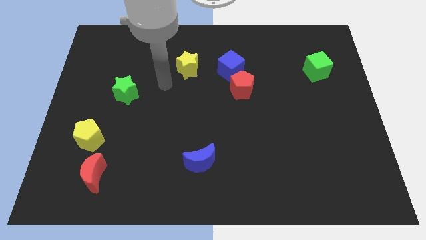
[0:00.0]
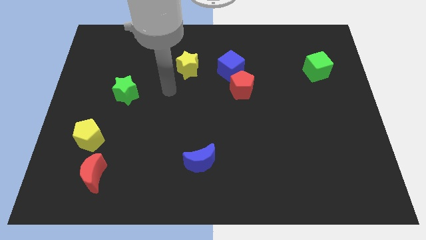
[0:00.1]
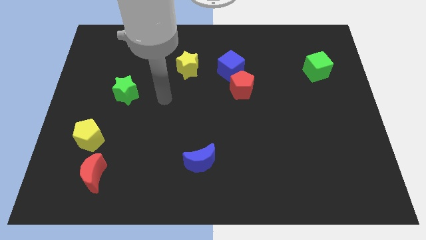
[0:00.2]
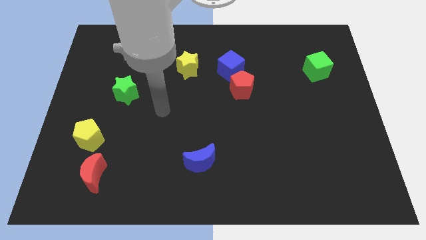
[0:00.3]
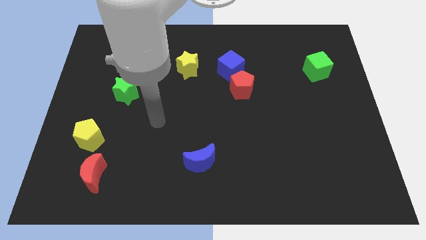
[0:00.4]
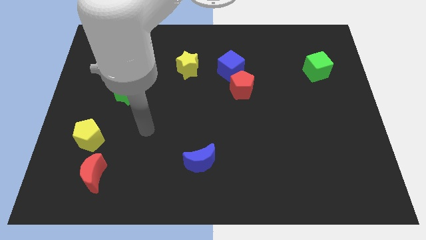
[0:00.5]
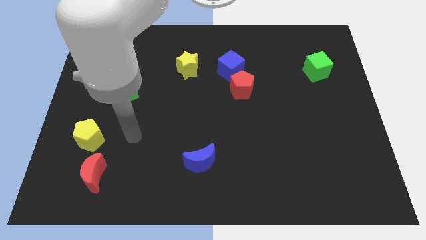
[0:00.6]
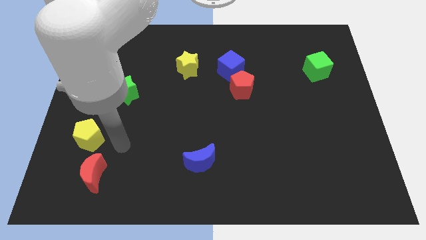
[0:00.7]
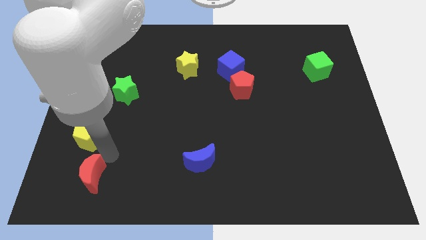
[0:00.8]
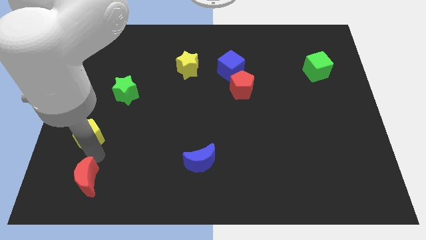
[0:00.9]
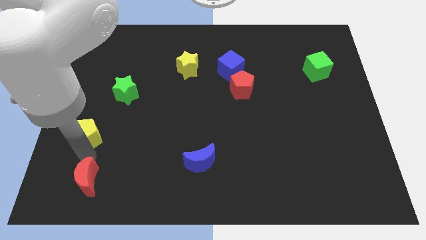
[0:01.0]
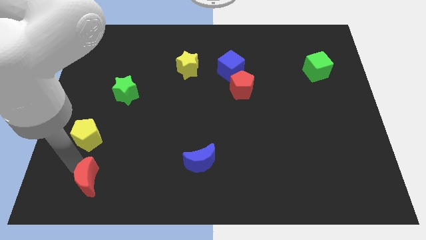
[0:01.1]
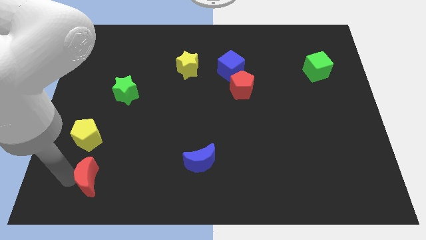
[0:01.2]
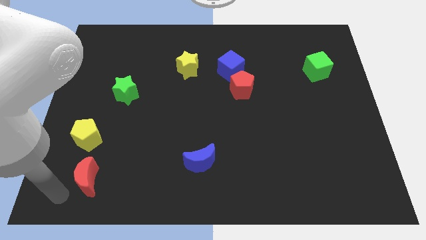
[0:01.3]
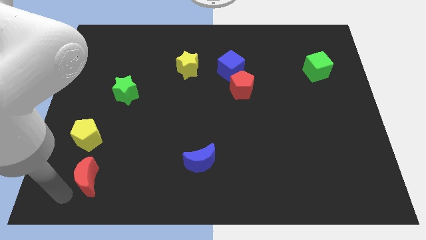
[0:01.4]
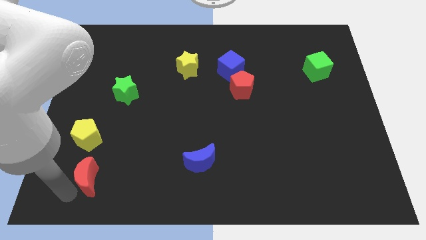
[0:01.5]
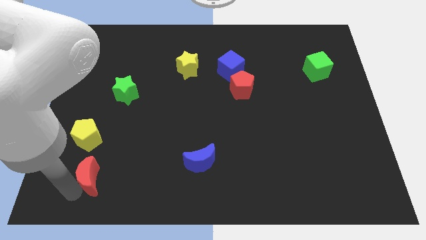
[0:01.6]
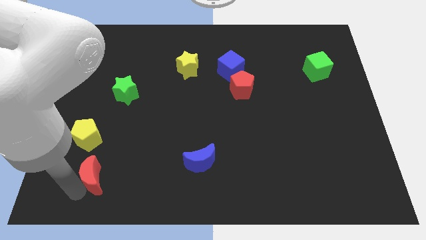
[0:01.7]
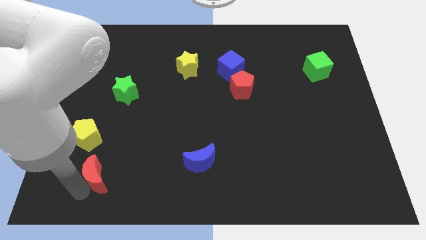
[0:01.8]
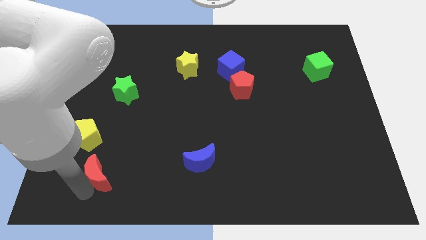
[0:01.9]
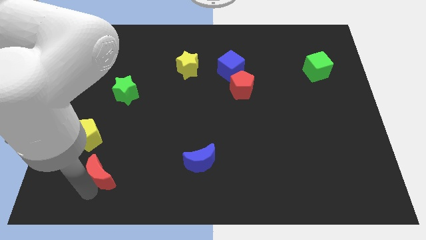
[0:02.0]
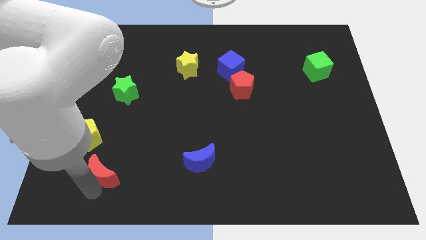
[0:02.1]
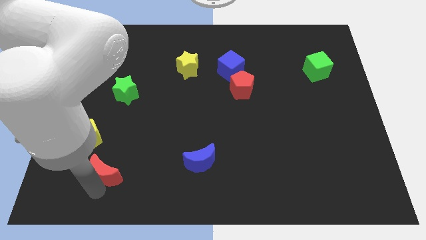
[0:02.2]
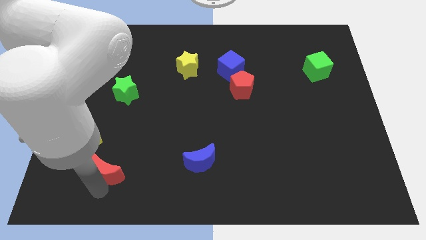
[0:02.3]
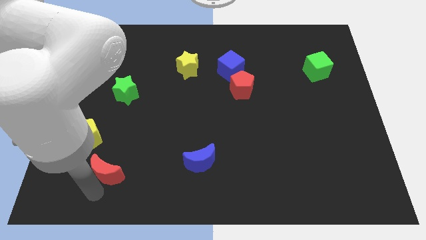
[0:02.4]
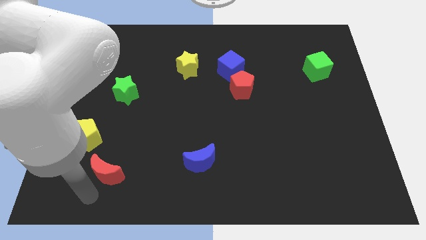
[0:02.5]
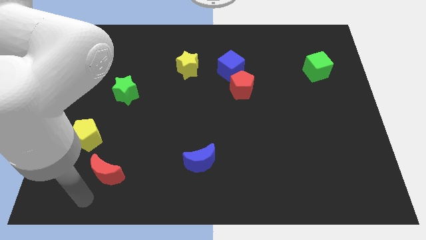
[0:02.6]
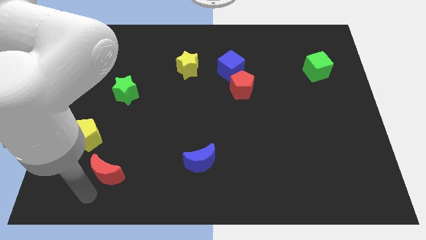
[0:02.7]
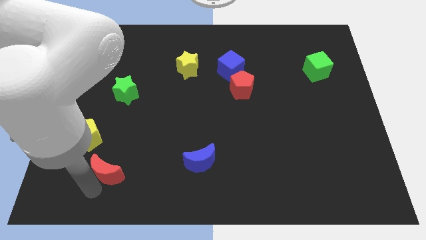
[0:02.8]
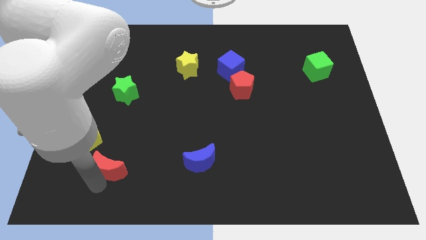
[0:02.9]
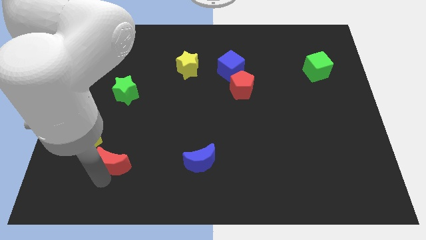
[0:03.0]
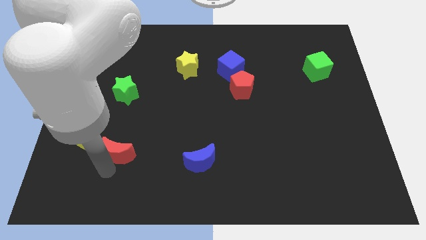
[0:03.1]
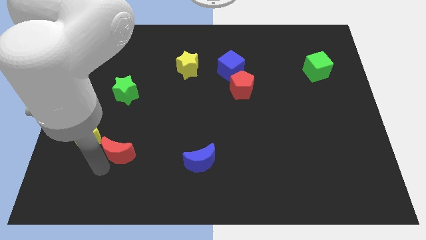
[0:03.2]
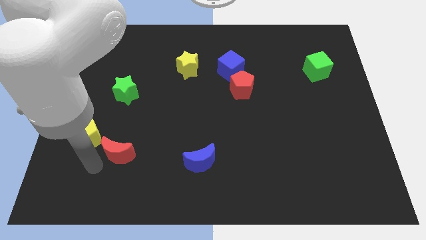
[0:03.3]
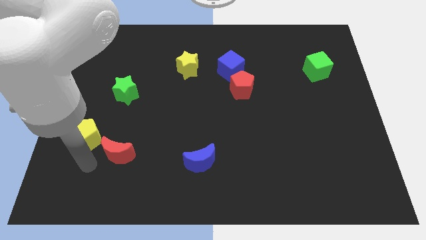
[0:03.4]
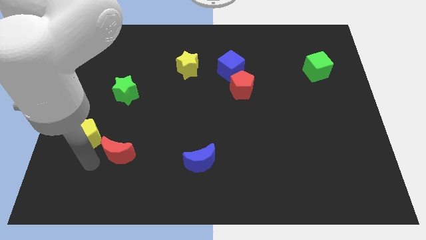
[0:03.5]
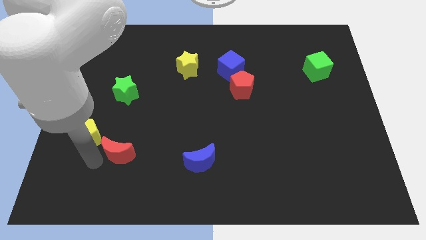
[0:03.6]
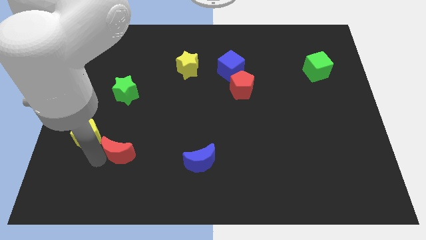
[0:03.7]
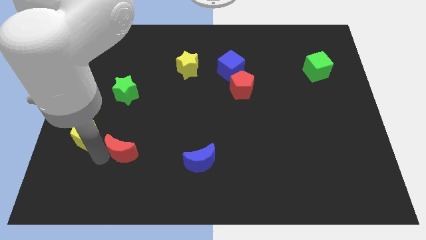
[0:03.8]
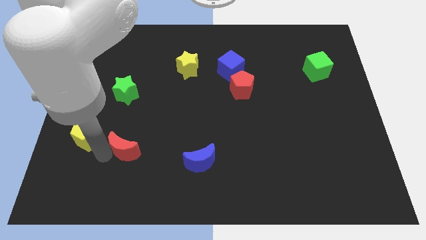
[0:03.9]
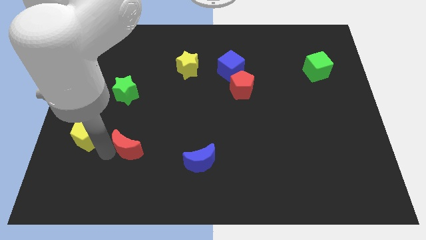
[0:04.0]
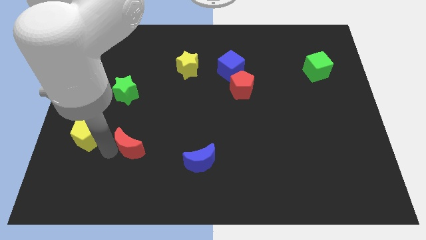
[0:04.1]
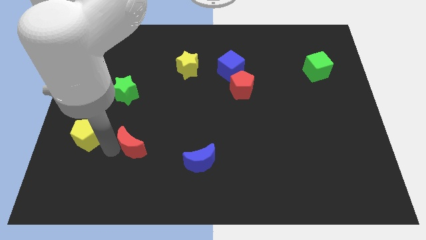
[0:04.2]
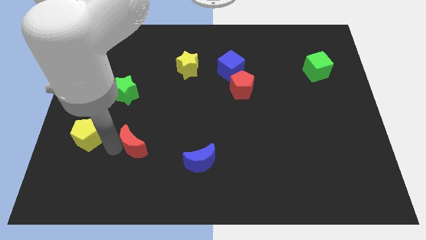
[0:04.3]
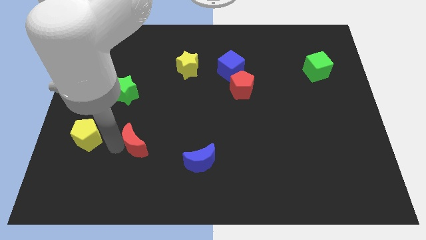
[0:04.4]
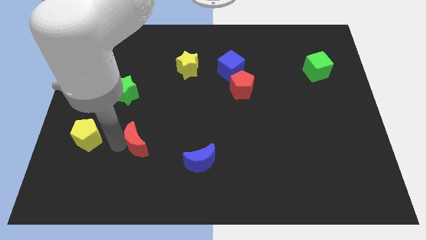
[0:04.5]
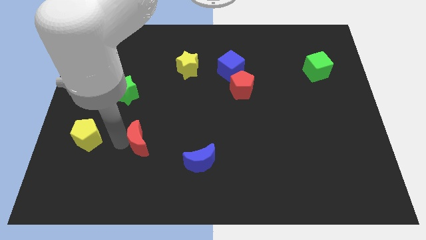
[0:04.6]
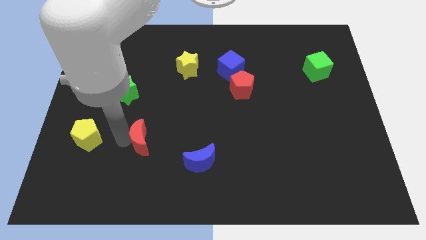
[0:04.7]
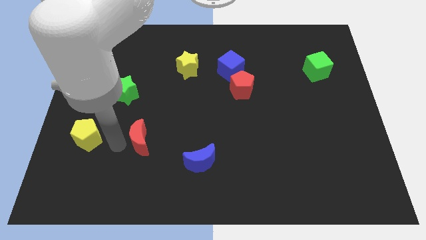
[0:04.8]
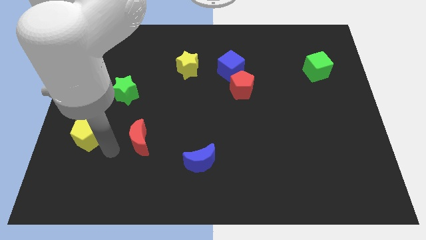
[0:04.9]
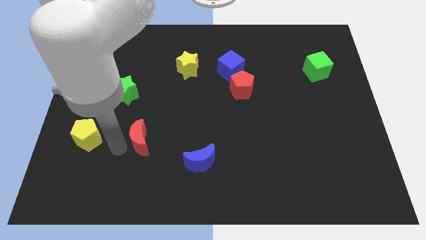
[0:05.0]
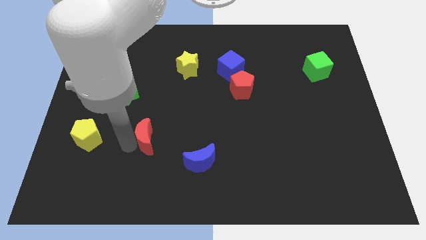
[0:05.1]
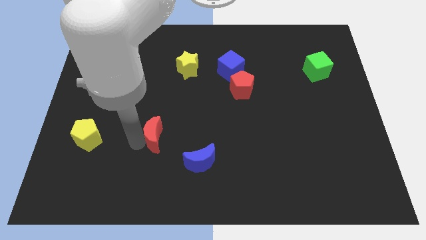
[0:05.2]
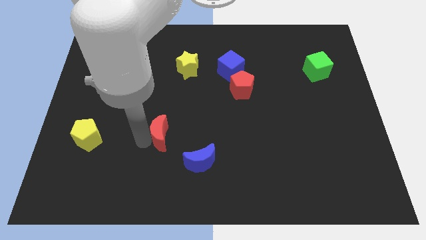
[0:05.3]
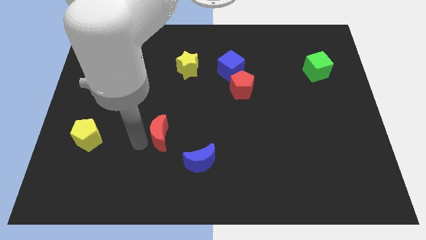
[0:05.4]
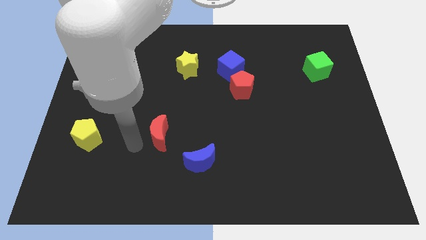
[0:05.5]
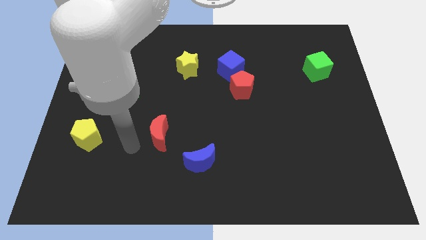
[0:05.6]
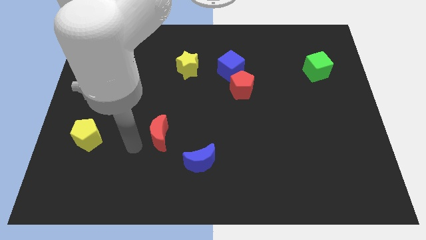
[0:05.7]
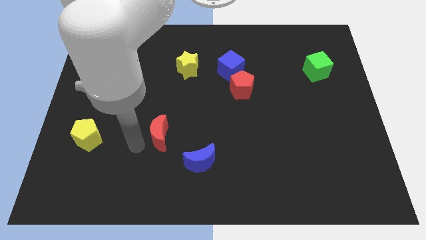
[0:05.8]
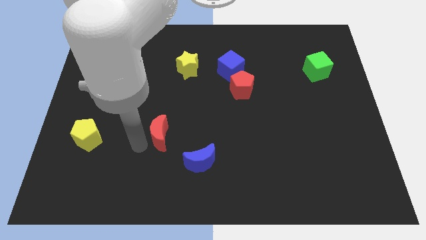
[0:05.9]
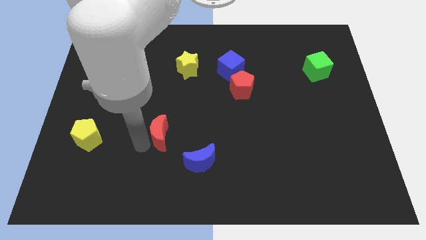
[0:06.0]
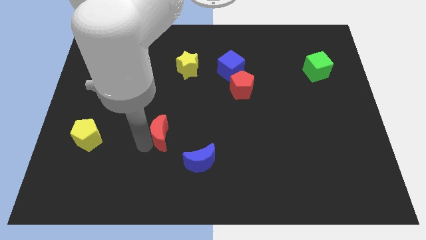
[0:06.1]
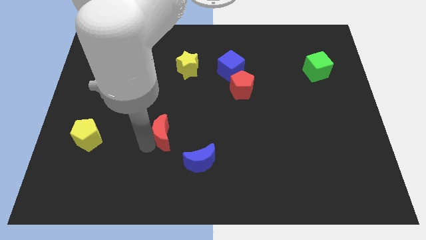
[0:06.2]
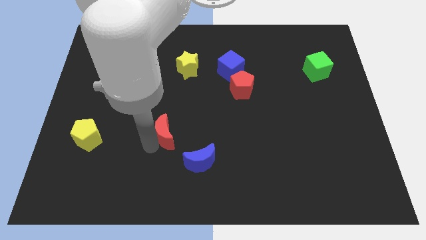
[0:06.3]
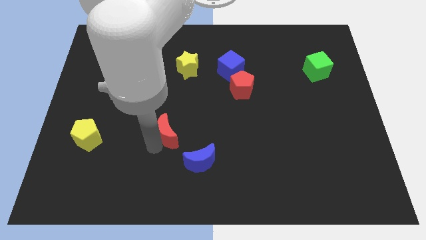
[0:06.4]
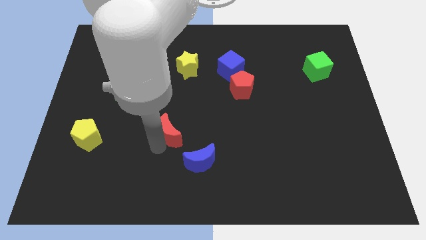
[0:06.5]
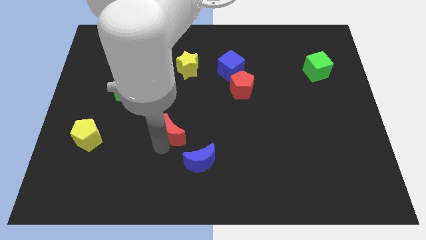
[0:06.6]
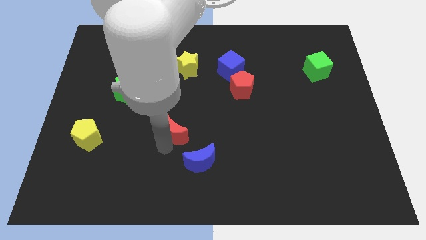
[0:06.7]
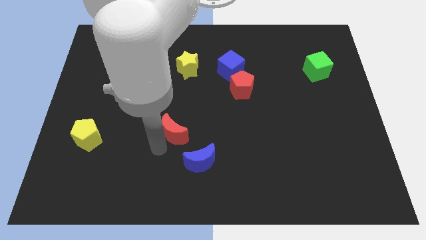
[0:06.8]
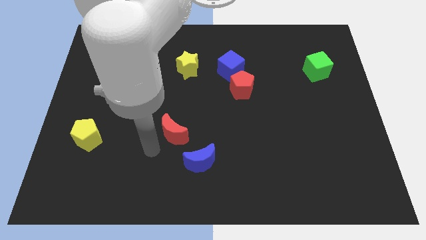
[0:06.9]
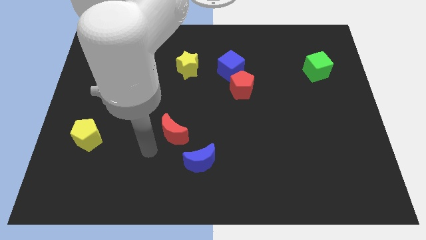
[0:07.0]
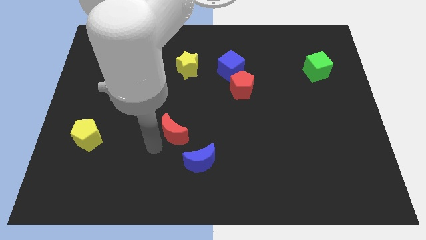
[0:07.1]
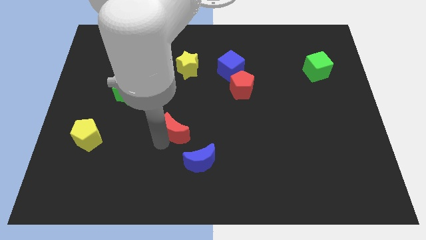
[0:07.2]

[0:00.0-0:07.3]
slide the red moon to the center
